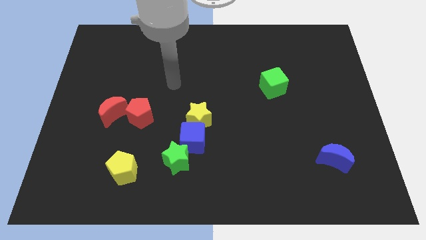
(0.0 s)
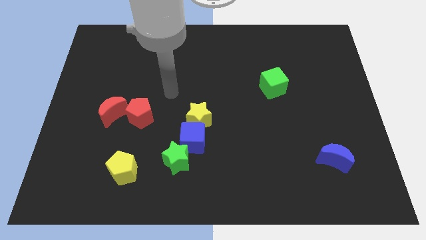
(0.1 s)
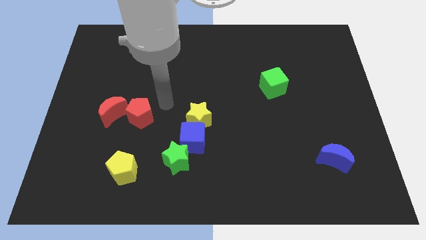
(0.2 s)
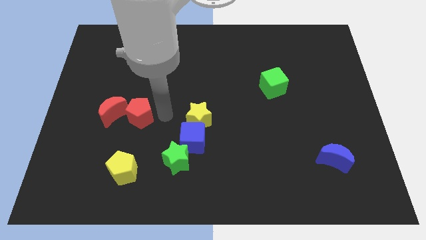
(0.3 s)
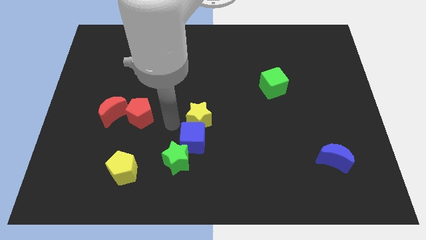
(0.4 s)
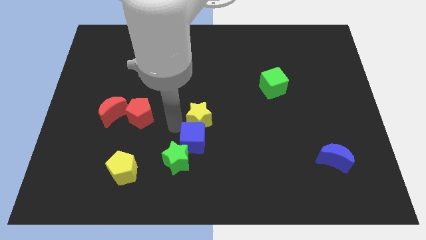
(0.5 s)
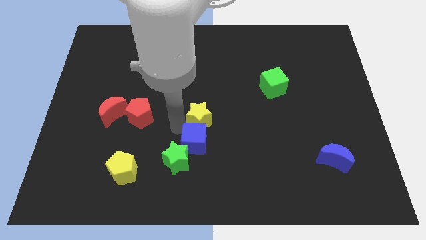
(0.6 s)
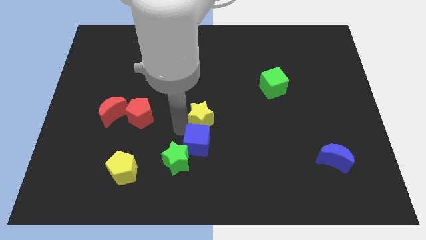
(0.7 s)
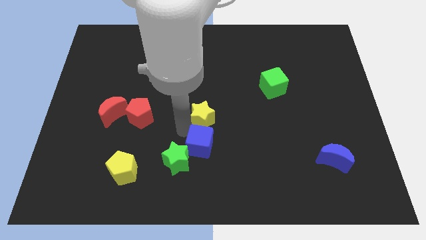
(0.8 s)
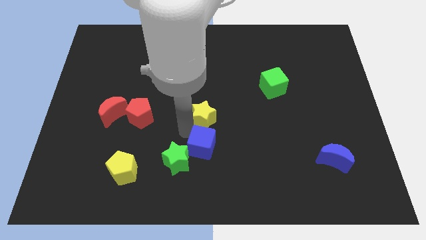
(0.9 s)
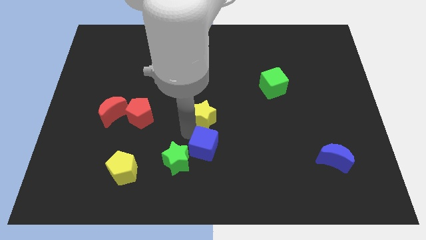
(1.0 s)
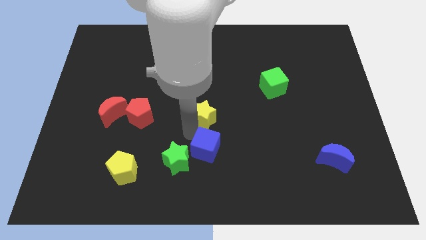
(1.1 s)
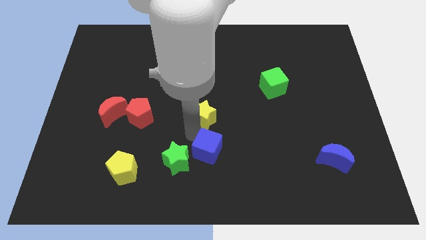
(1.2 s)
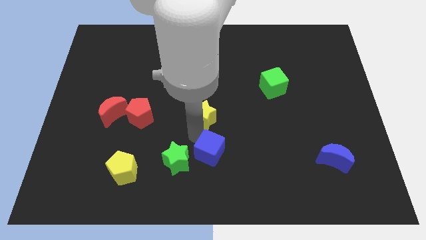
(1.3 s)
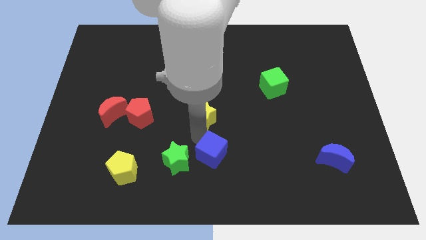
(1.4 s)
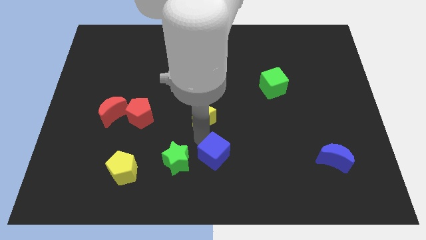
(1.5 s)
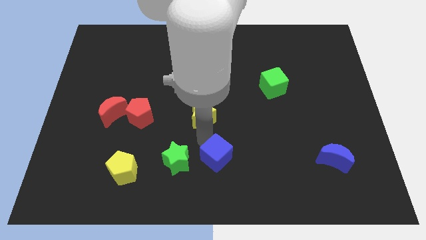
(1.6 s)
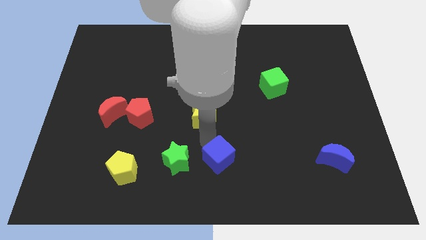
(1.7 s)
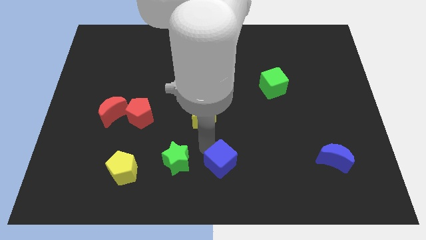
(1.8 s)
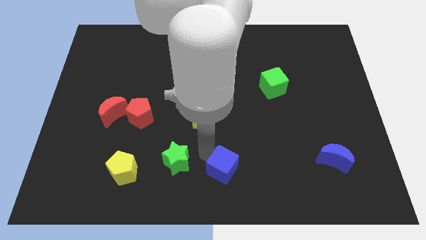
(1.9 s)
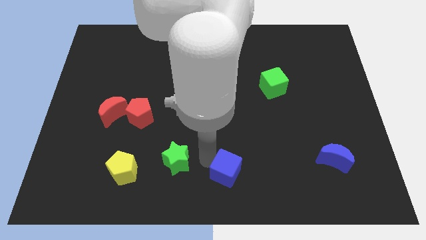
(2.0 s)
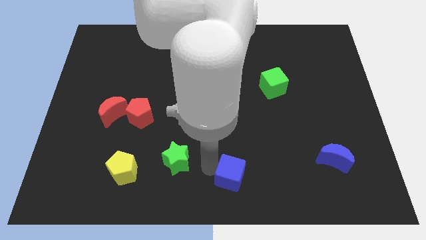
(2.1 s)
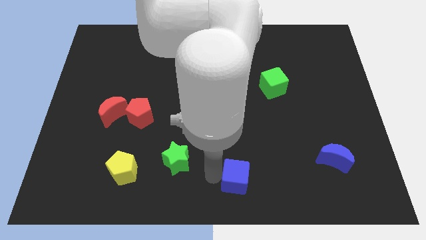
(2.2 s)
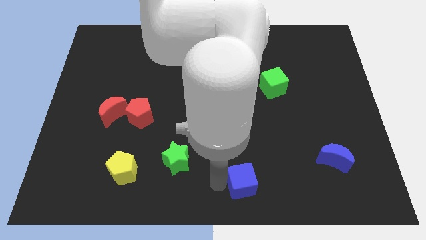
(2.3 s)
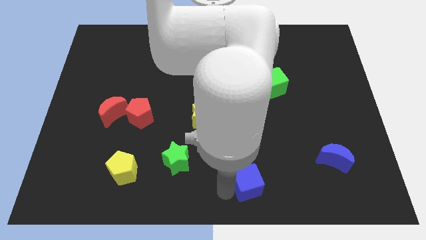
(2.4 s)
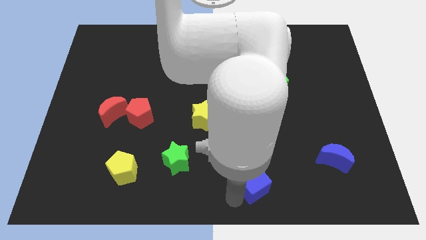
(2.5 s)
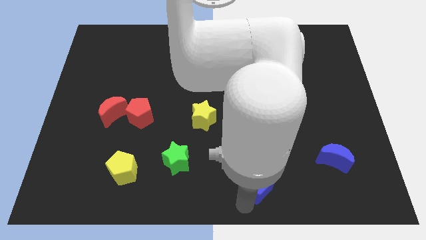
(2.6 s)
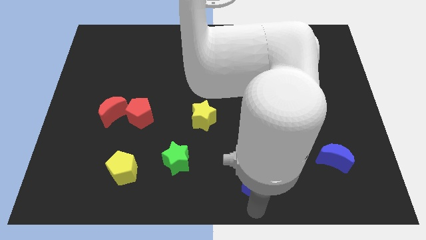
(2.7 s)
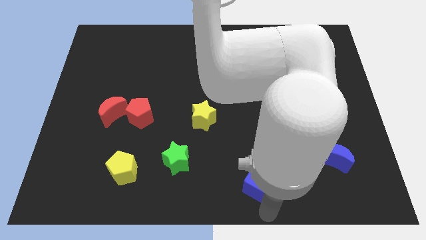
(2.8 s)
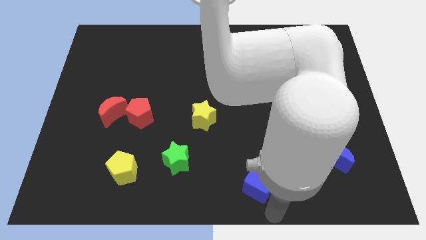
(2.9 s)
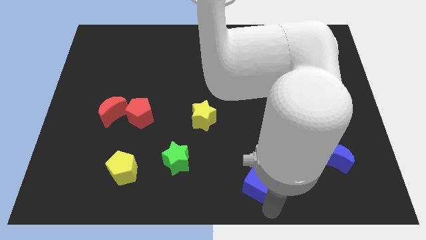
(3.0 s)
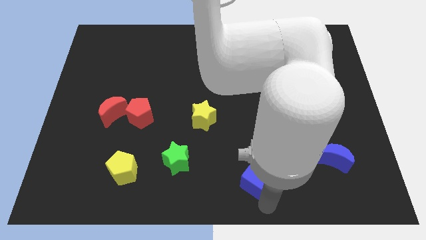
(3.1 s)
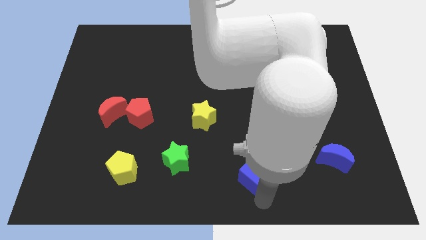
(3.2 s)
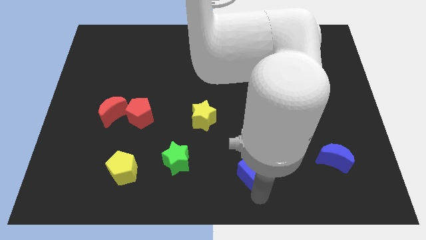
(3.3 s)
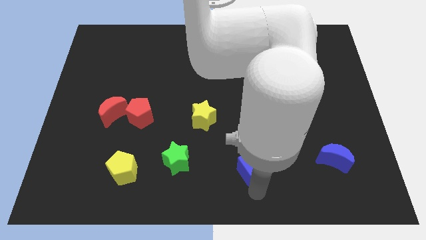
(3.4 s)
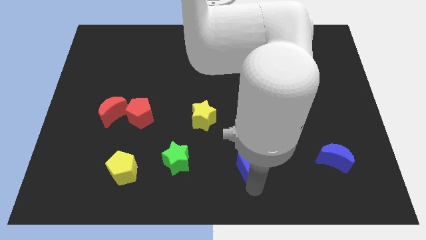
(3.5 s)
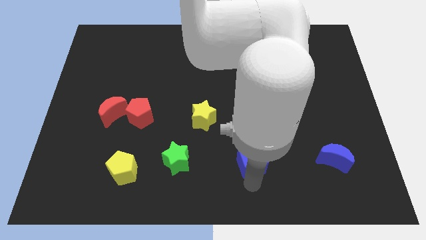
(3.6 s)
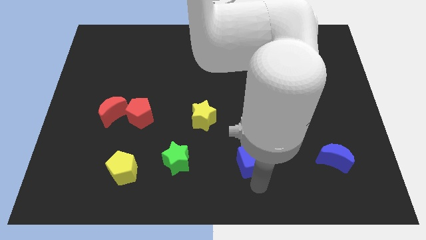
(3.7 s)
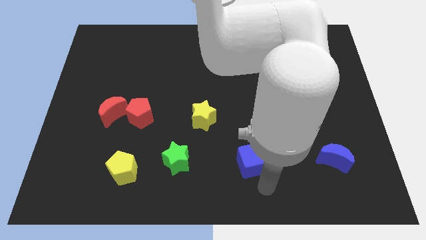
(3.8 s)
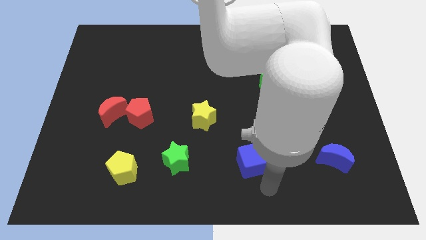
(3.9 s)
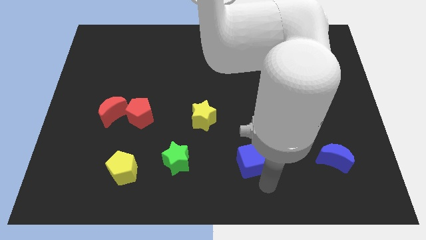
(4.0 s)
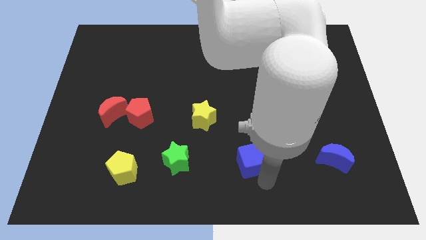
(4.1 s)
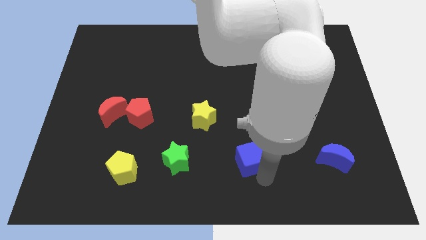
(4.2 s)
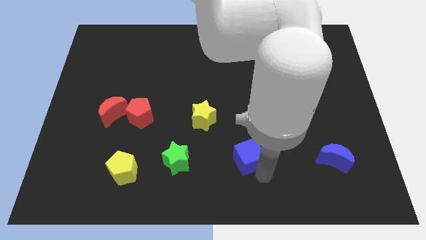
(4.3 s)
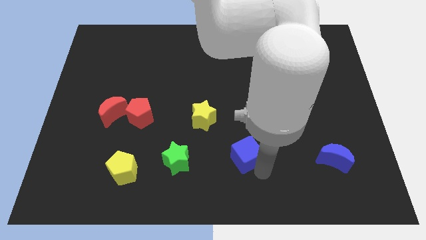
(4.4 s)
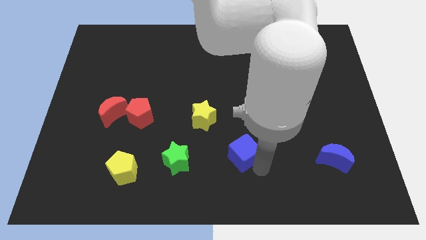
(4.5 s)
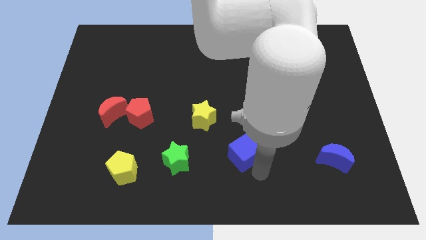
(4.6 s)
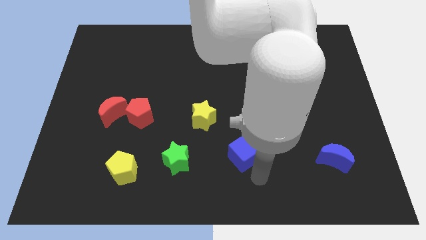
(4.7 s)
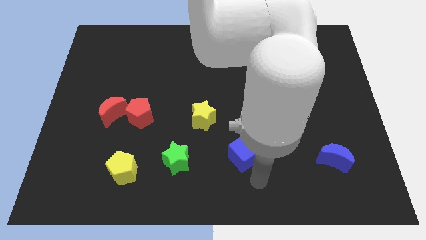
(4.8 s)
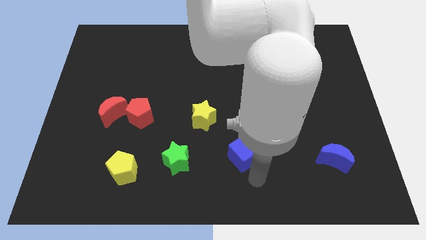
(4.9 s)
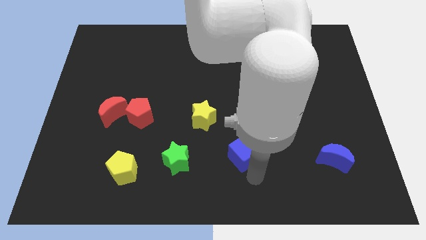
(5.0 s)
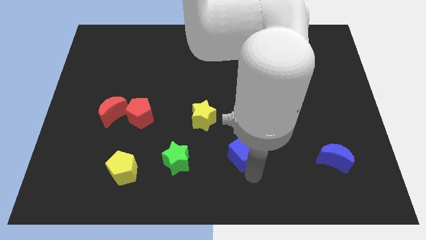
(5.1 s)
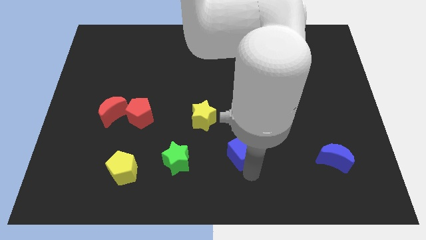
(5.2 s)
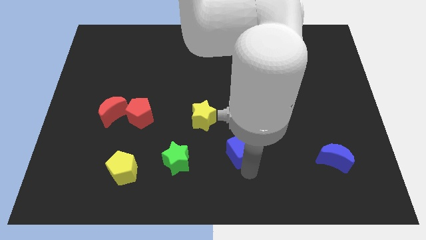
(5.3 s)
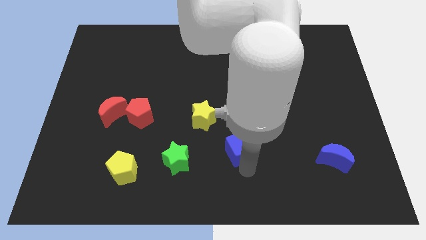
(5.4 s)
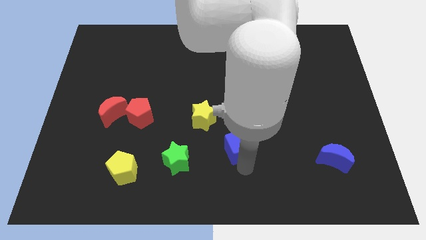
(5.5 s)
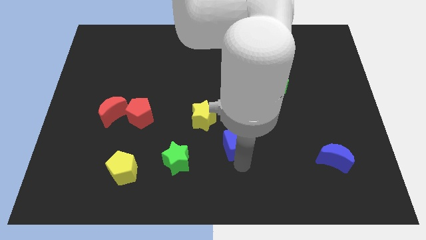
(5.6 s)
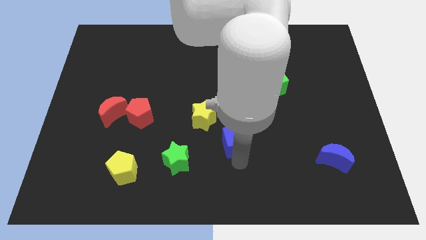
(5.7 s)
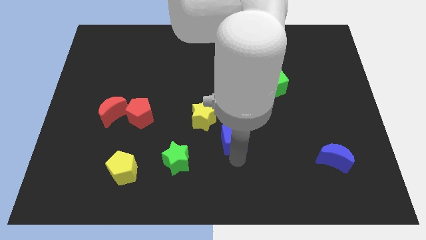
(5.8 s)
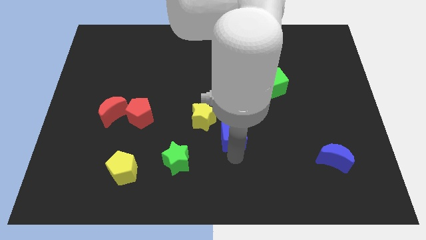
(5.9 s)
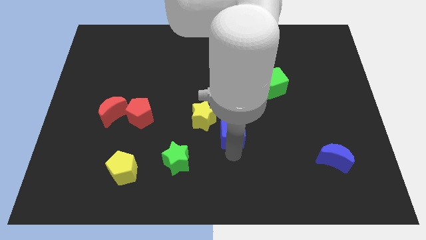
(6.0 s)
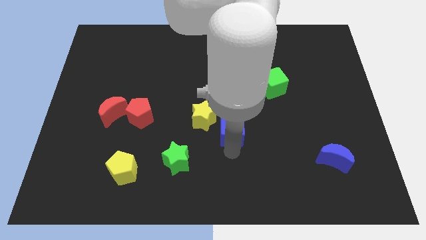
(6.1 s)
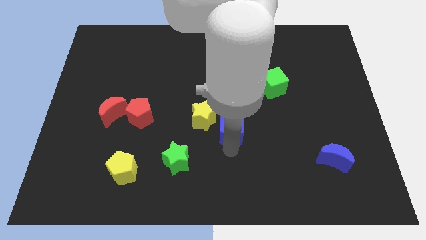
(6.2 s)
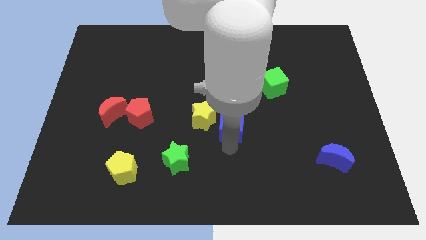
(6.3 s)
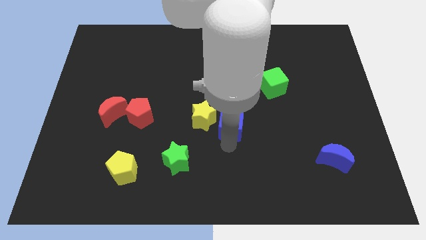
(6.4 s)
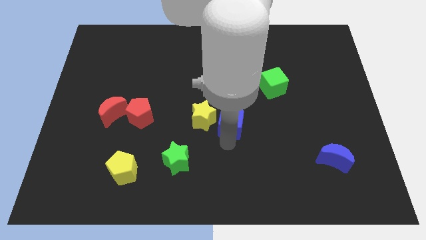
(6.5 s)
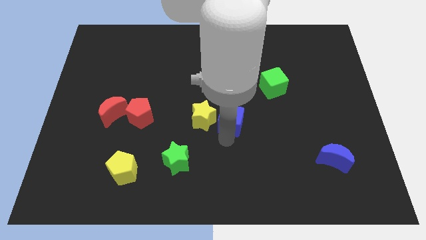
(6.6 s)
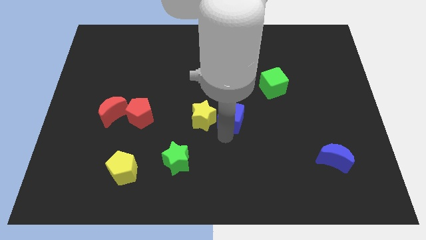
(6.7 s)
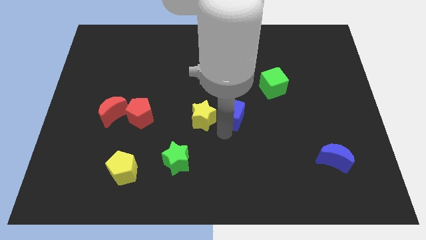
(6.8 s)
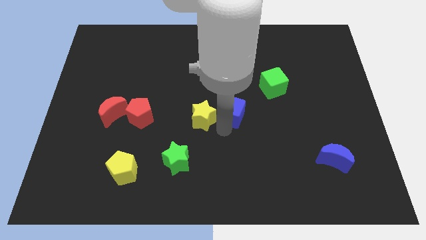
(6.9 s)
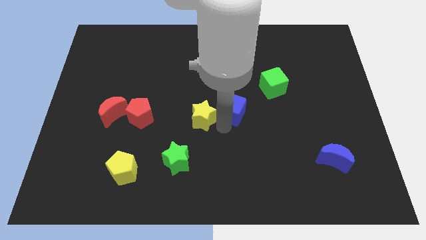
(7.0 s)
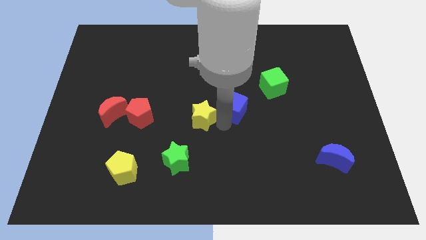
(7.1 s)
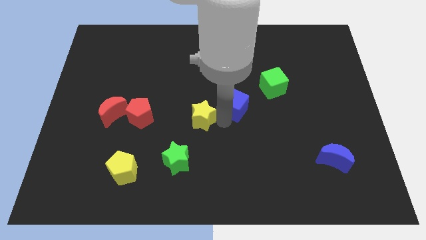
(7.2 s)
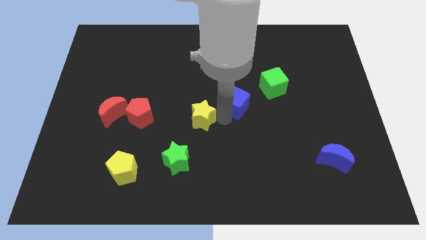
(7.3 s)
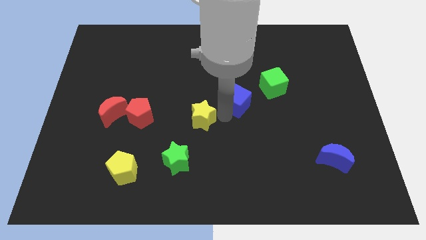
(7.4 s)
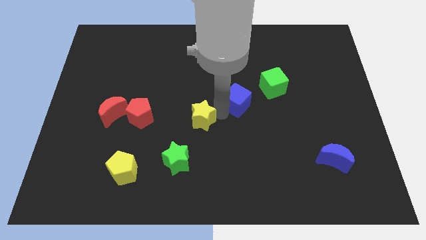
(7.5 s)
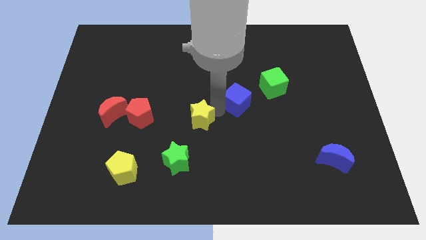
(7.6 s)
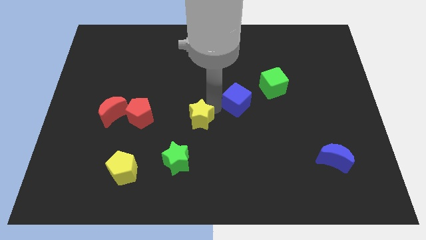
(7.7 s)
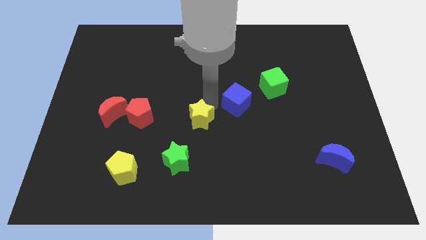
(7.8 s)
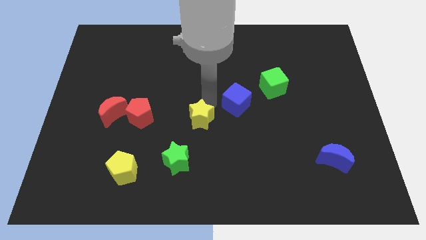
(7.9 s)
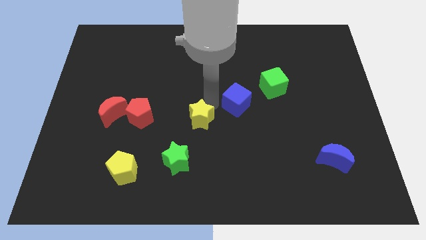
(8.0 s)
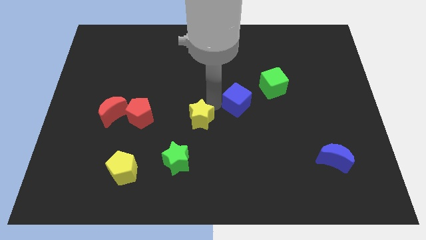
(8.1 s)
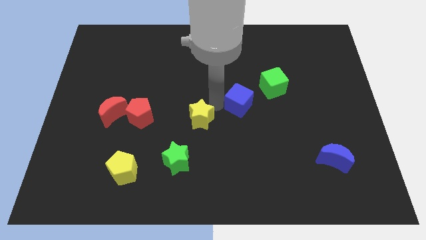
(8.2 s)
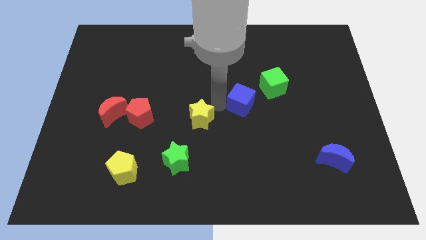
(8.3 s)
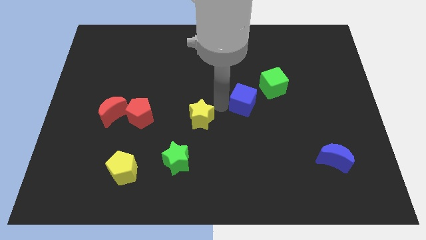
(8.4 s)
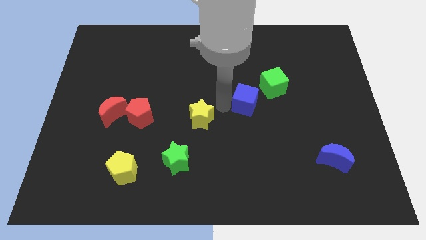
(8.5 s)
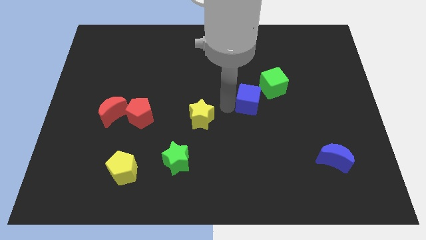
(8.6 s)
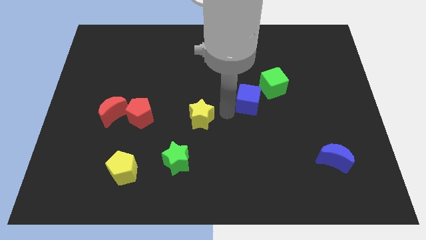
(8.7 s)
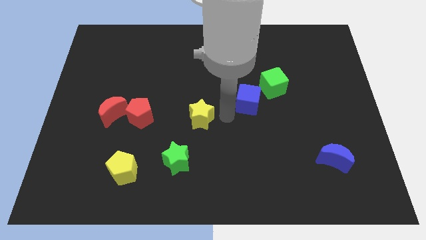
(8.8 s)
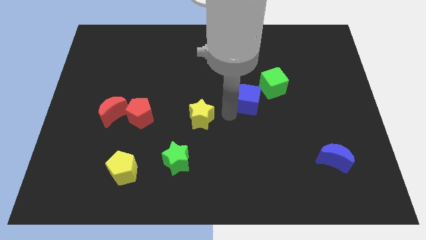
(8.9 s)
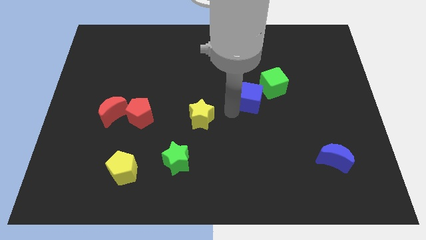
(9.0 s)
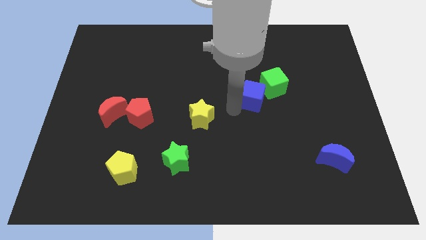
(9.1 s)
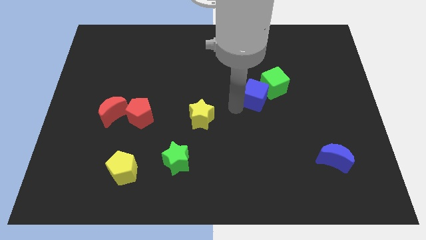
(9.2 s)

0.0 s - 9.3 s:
put the blue cube next to the green cube
